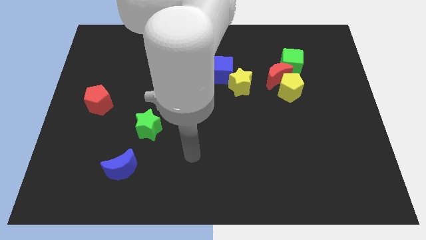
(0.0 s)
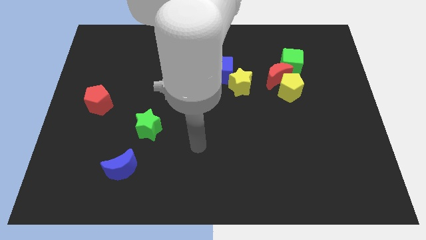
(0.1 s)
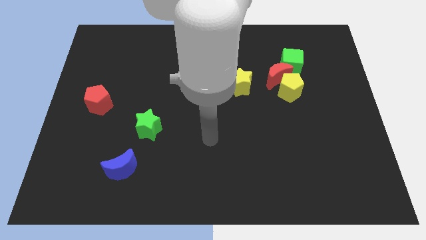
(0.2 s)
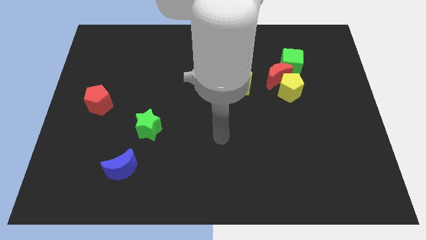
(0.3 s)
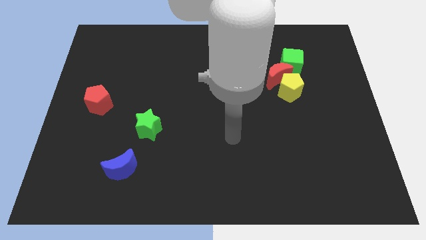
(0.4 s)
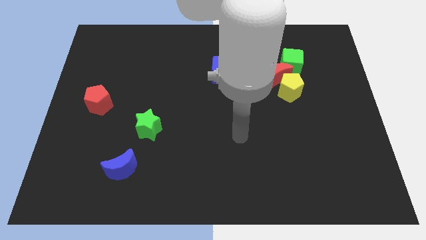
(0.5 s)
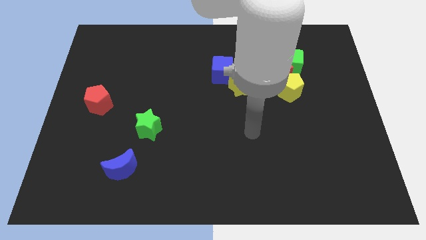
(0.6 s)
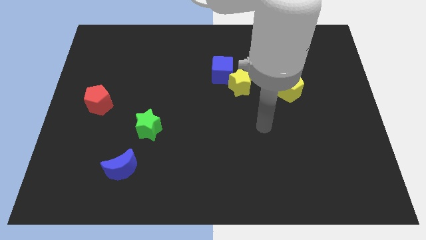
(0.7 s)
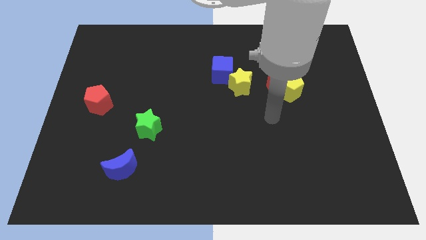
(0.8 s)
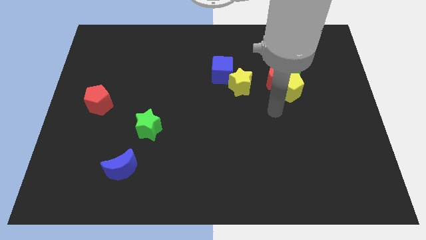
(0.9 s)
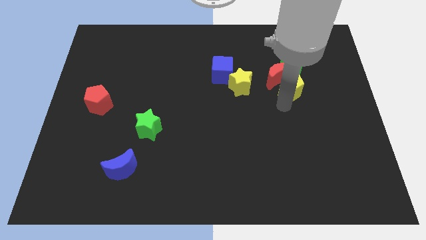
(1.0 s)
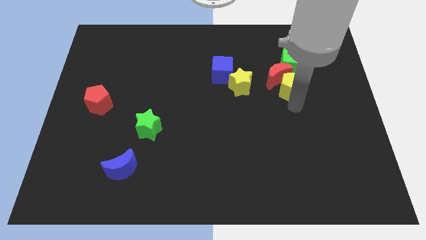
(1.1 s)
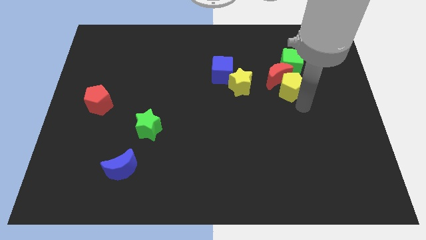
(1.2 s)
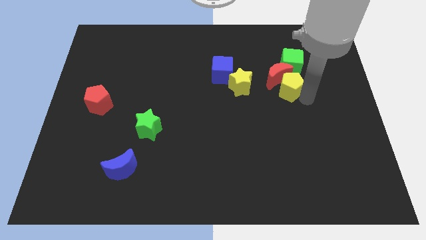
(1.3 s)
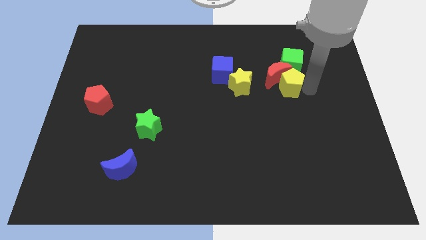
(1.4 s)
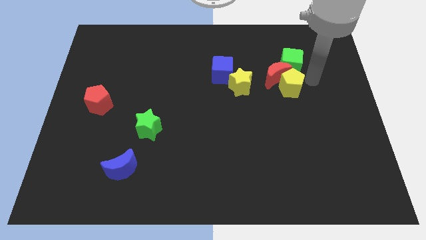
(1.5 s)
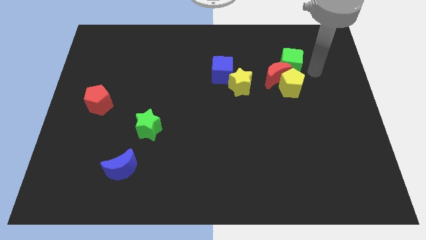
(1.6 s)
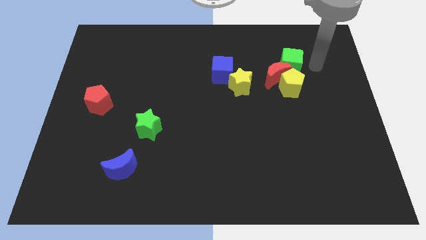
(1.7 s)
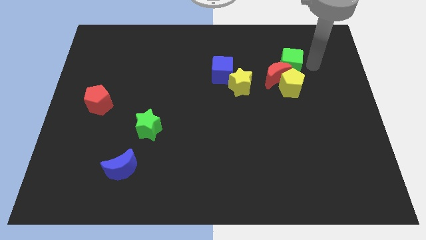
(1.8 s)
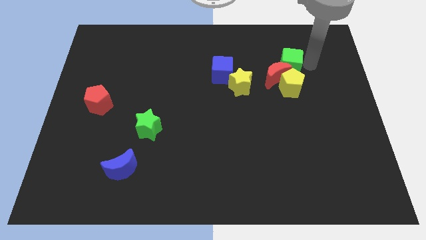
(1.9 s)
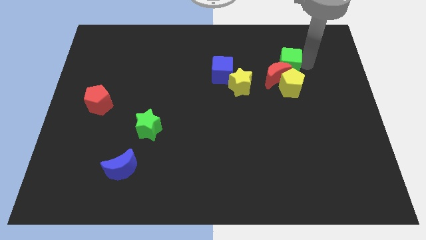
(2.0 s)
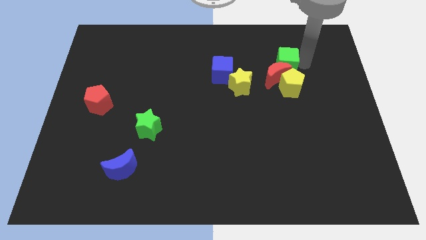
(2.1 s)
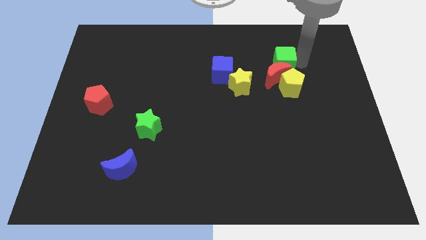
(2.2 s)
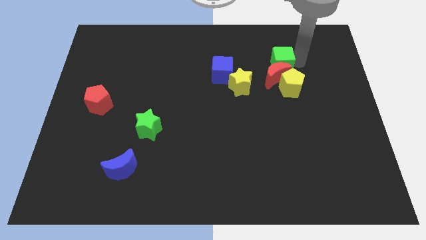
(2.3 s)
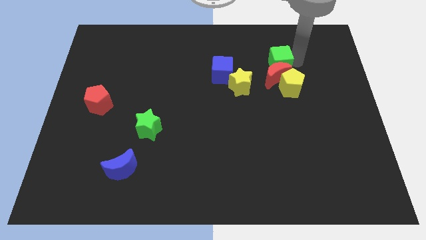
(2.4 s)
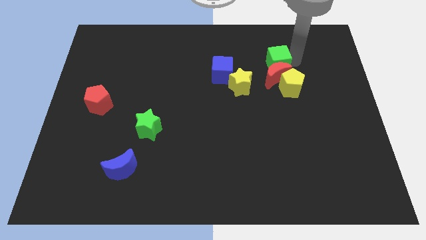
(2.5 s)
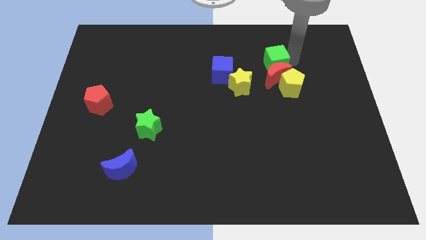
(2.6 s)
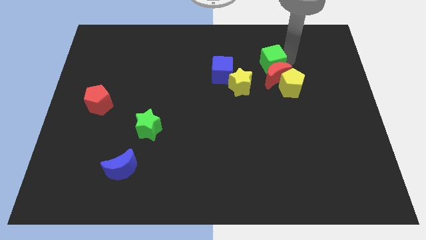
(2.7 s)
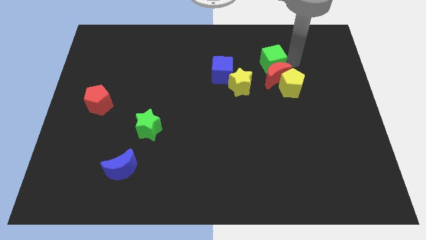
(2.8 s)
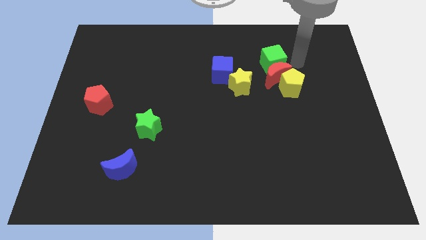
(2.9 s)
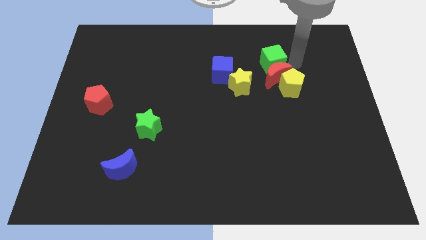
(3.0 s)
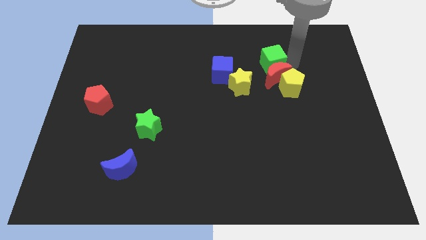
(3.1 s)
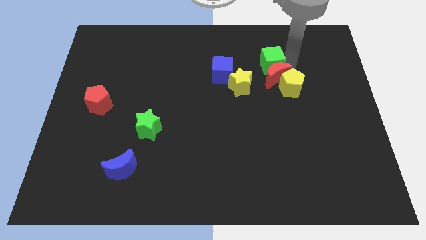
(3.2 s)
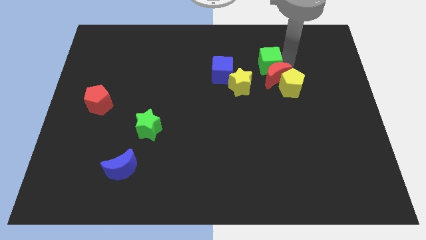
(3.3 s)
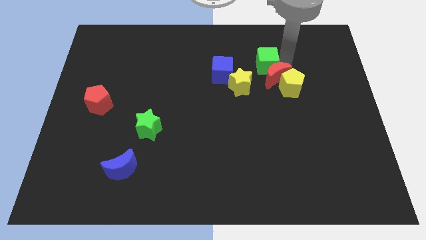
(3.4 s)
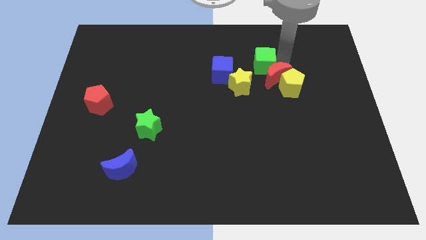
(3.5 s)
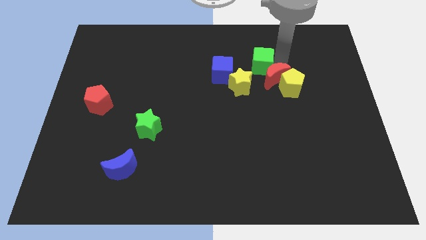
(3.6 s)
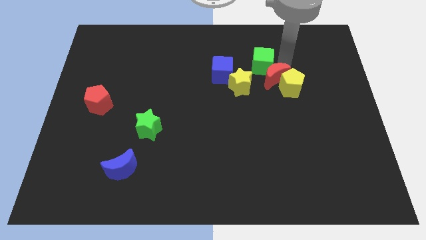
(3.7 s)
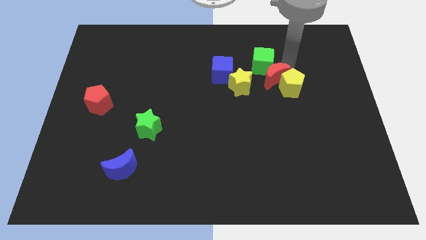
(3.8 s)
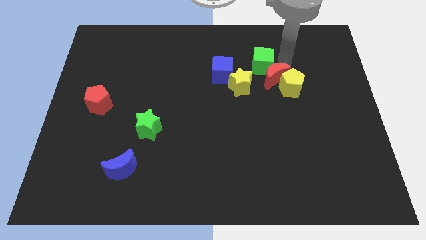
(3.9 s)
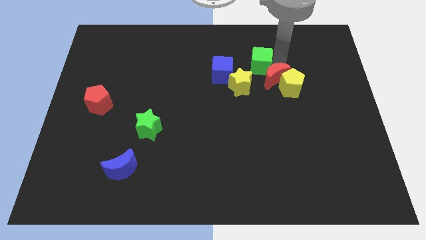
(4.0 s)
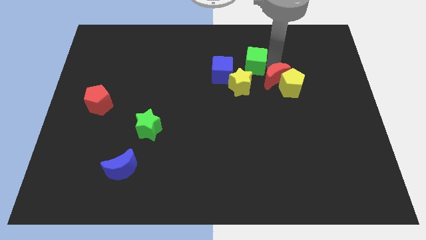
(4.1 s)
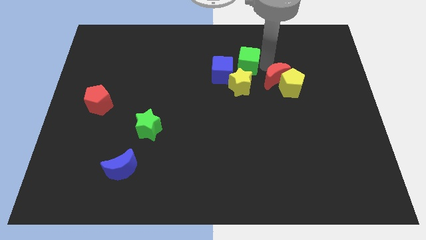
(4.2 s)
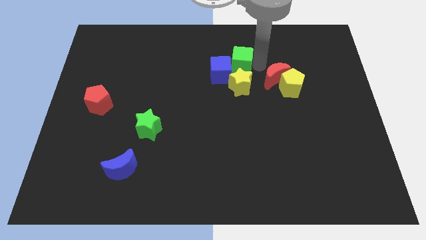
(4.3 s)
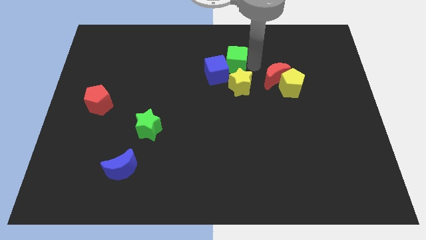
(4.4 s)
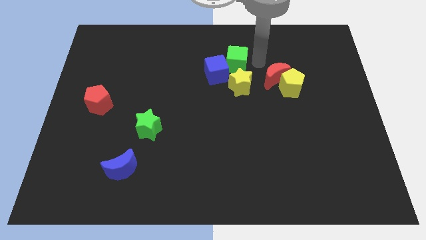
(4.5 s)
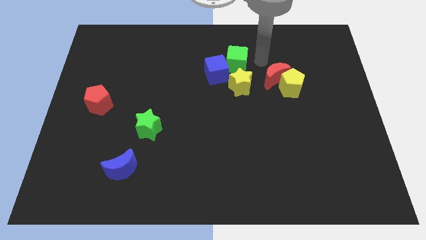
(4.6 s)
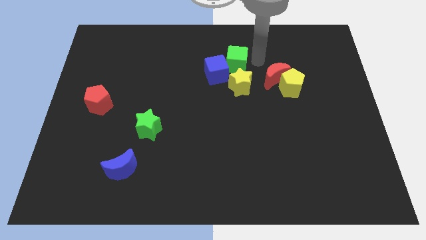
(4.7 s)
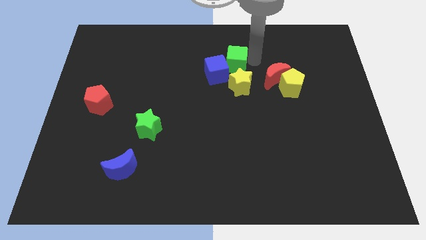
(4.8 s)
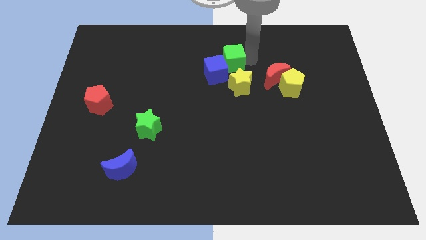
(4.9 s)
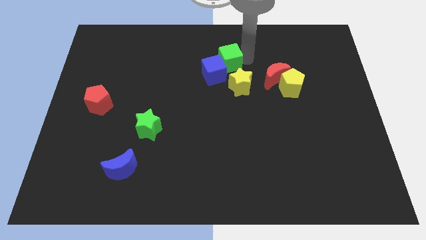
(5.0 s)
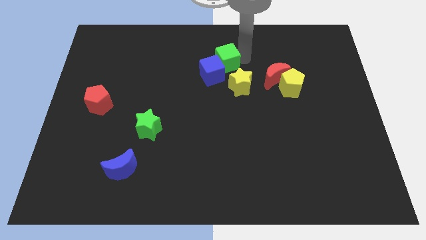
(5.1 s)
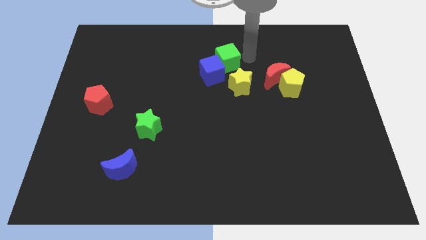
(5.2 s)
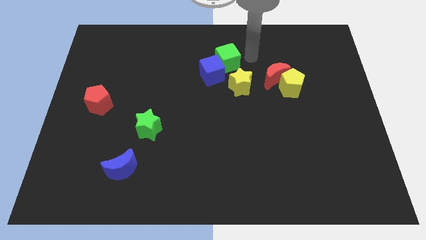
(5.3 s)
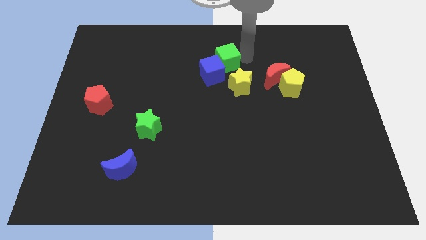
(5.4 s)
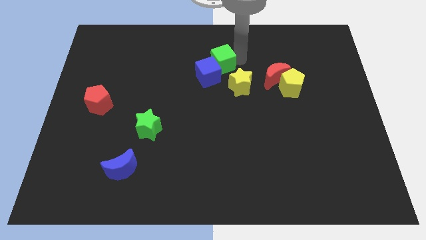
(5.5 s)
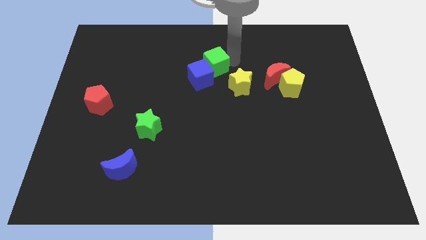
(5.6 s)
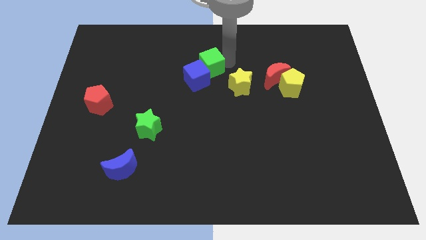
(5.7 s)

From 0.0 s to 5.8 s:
move the green cube to the left

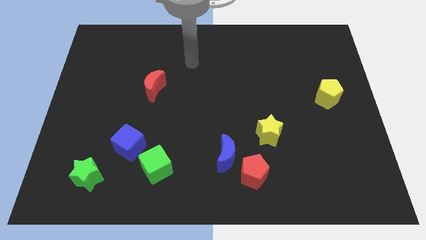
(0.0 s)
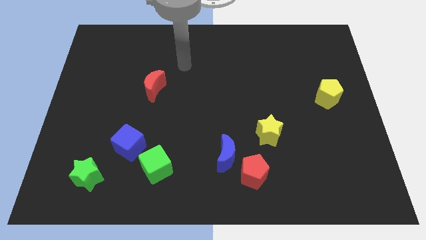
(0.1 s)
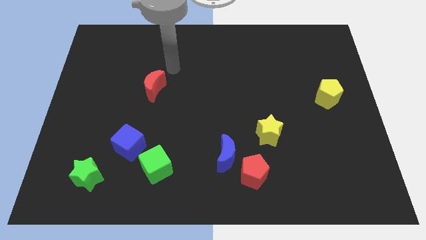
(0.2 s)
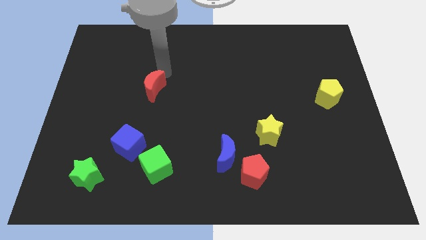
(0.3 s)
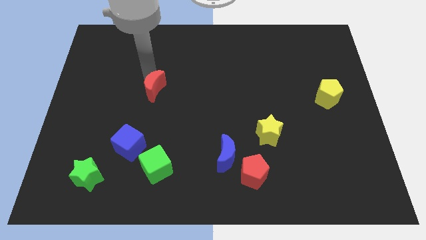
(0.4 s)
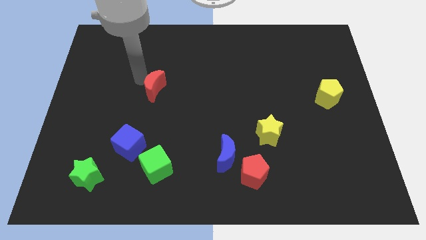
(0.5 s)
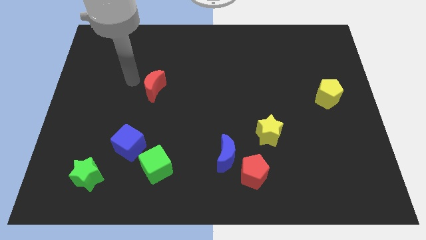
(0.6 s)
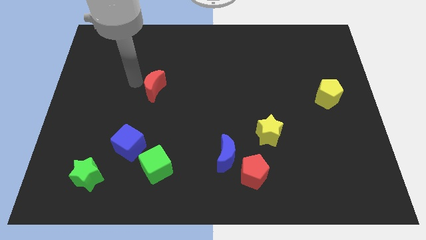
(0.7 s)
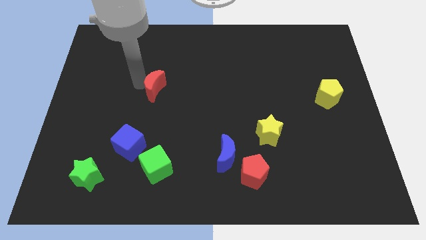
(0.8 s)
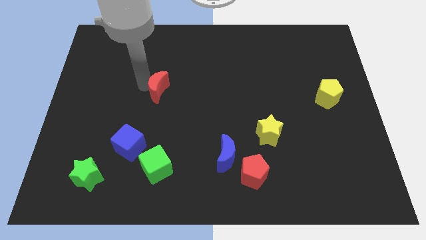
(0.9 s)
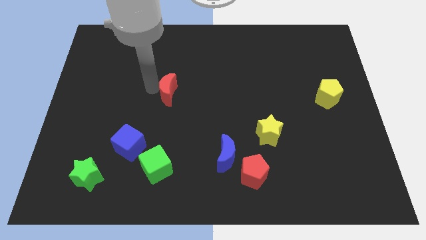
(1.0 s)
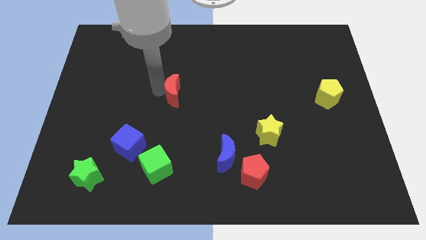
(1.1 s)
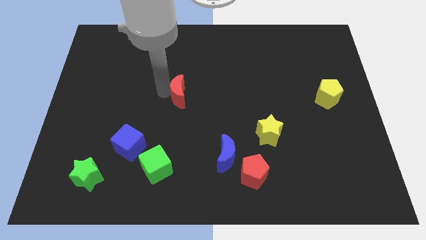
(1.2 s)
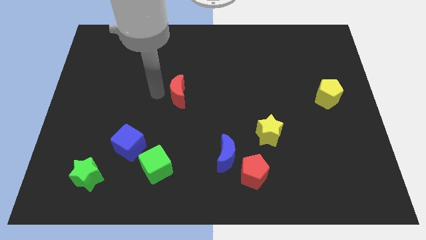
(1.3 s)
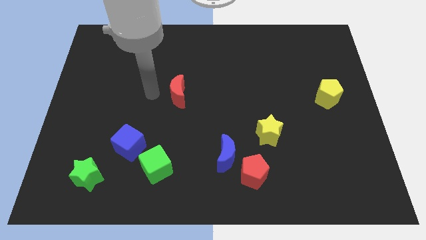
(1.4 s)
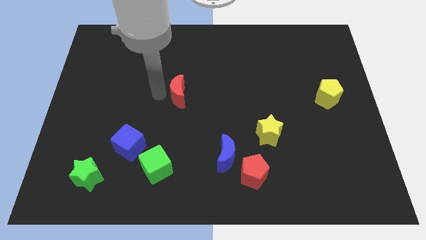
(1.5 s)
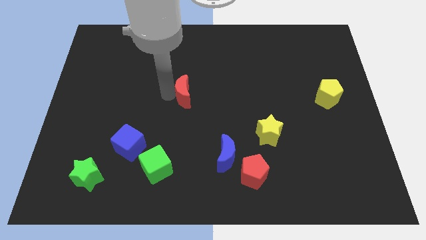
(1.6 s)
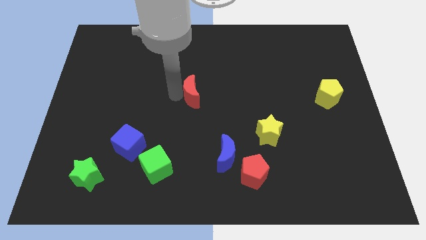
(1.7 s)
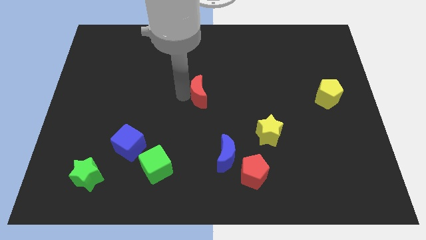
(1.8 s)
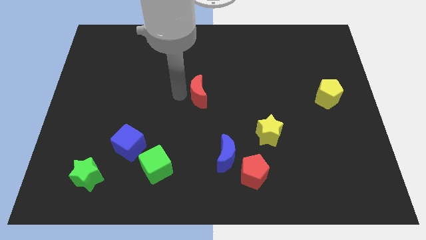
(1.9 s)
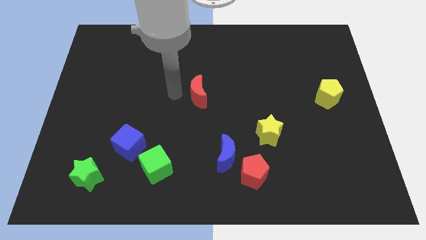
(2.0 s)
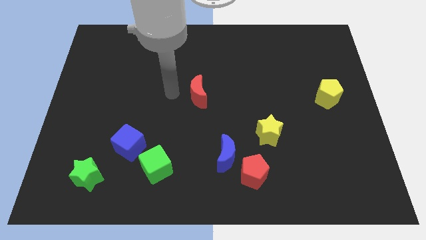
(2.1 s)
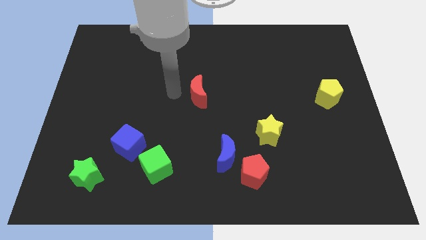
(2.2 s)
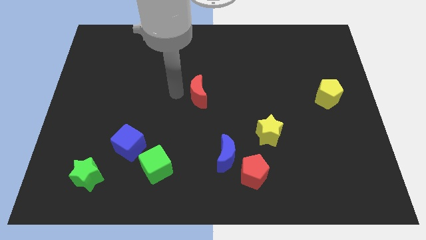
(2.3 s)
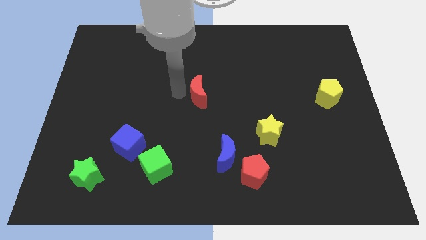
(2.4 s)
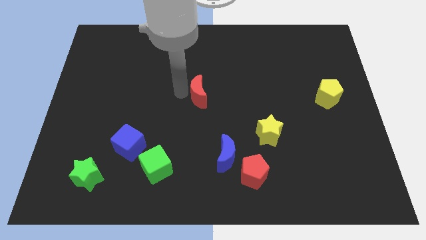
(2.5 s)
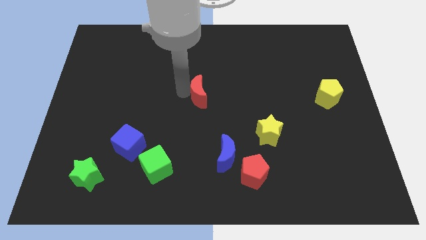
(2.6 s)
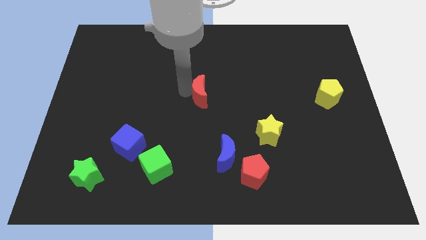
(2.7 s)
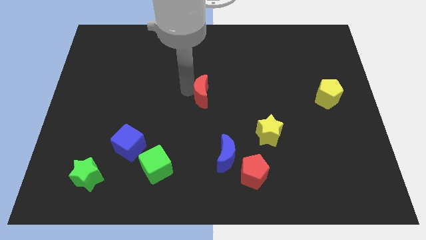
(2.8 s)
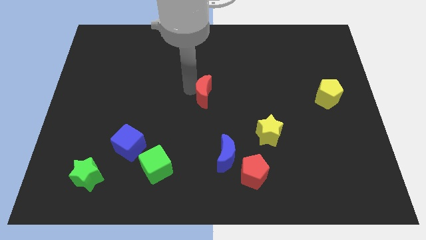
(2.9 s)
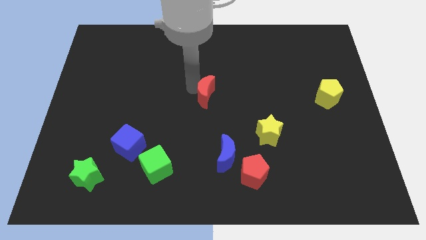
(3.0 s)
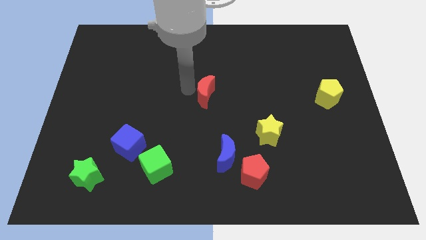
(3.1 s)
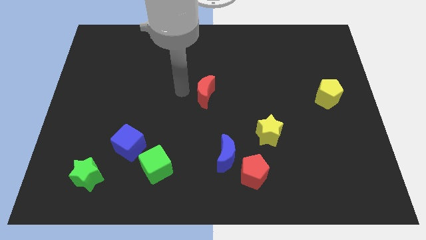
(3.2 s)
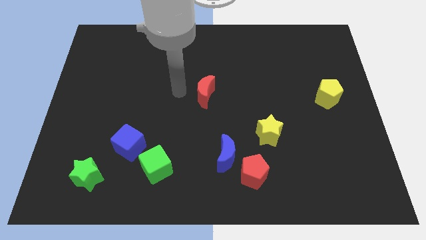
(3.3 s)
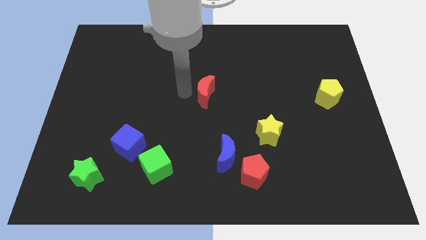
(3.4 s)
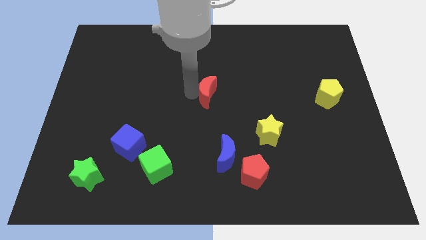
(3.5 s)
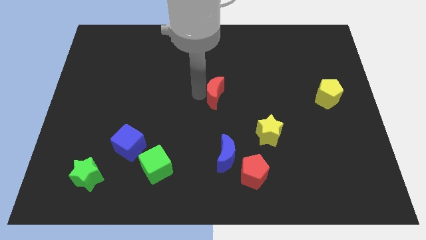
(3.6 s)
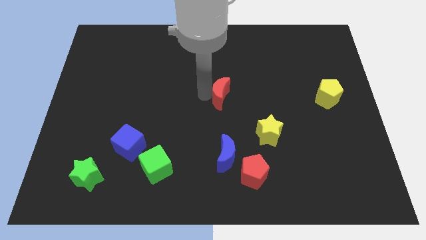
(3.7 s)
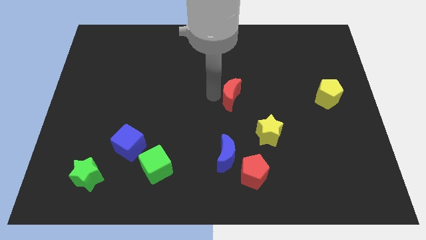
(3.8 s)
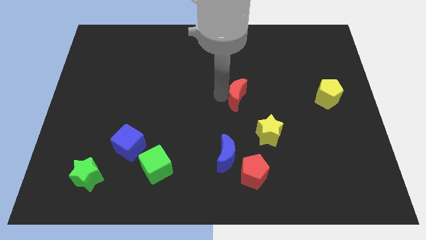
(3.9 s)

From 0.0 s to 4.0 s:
push the red moon to the right
